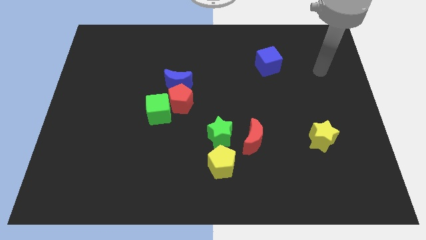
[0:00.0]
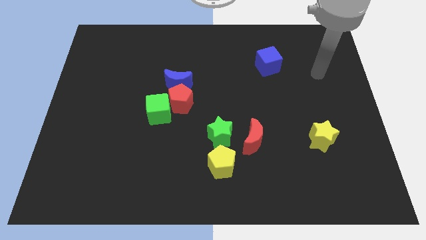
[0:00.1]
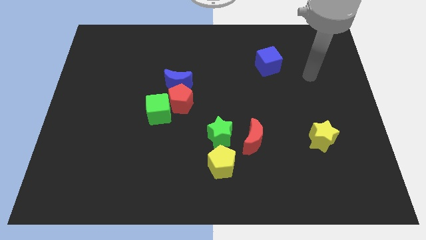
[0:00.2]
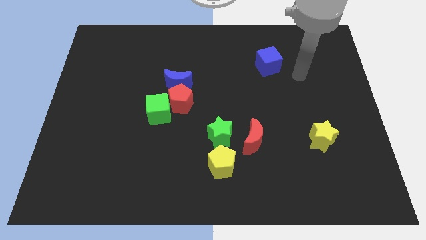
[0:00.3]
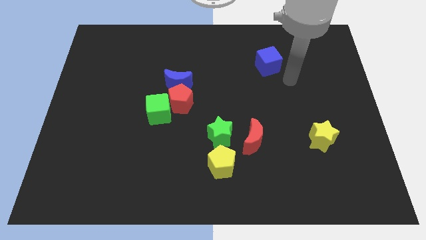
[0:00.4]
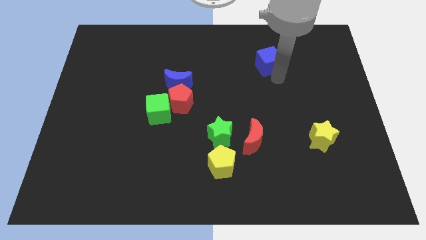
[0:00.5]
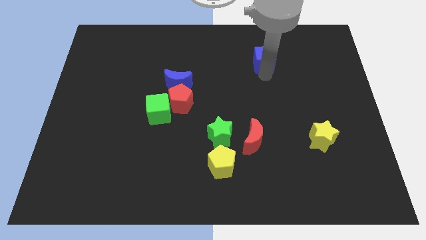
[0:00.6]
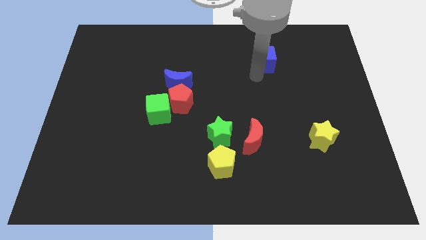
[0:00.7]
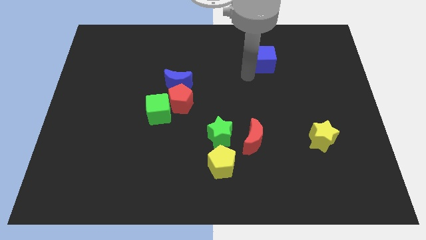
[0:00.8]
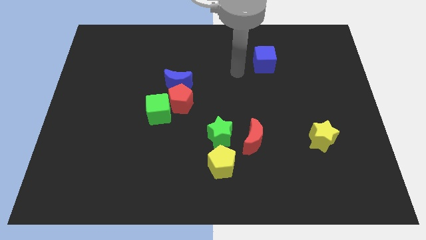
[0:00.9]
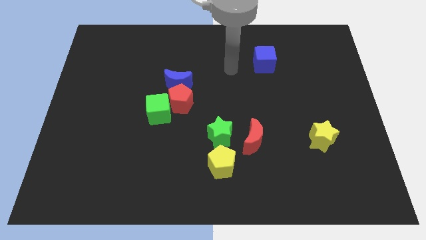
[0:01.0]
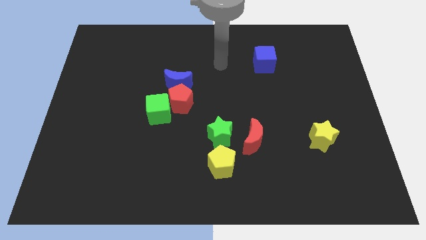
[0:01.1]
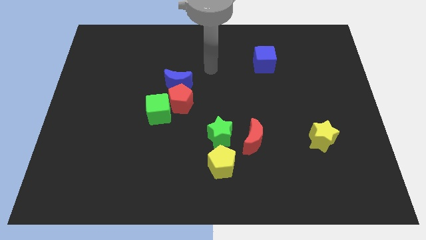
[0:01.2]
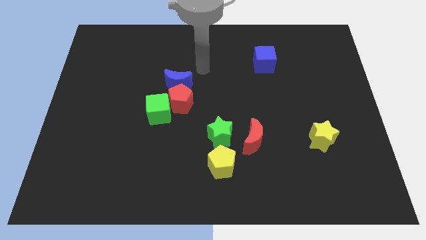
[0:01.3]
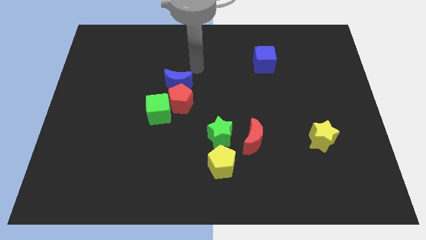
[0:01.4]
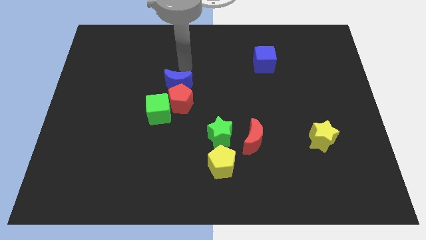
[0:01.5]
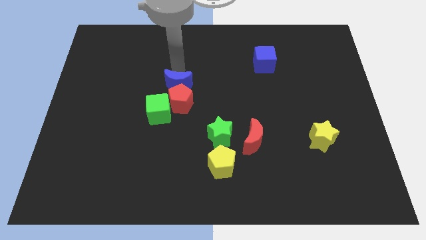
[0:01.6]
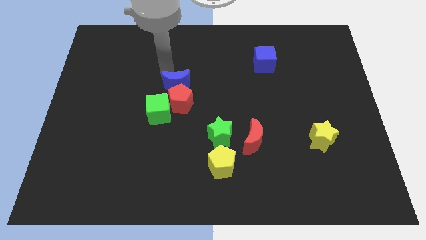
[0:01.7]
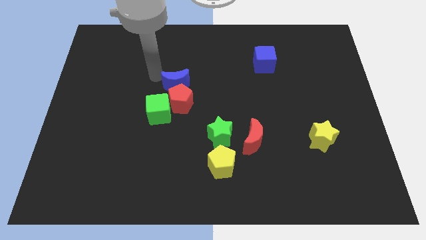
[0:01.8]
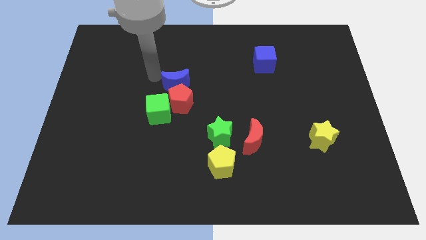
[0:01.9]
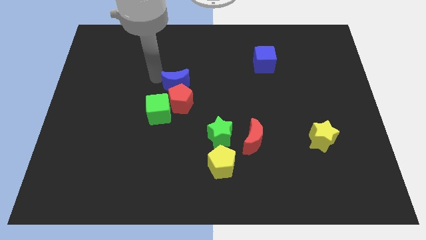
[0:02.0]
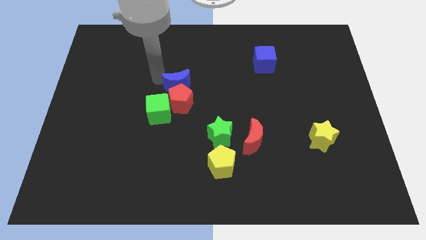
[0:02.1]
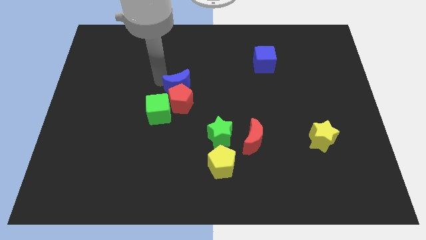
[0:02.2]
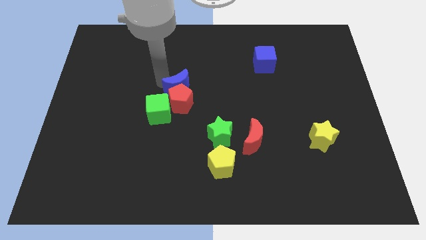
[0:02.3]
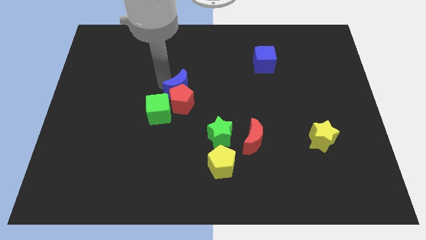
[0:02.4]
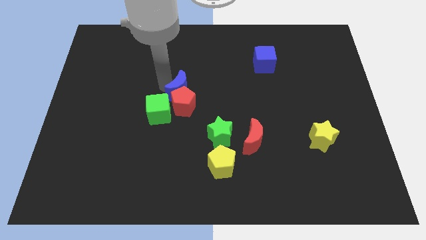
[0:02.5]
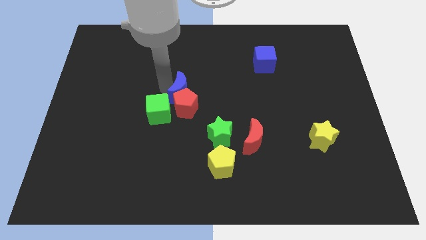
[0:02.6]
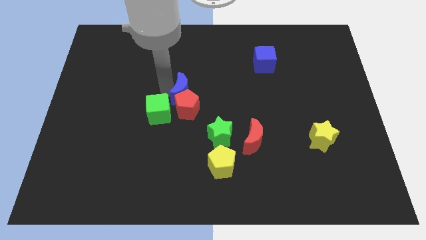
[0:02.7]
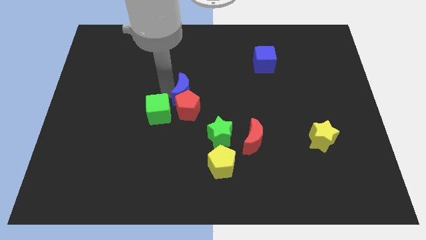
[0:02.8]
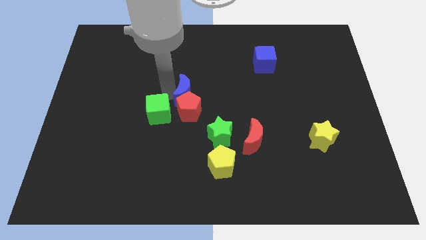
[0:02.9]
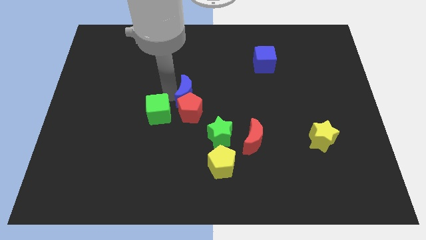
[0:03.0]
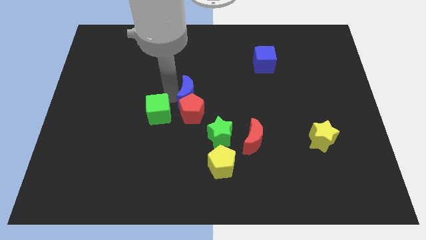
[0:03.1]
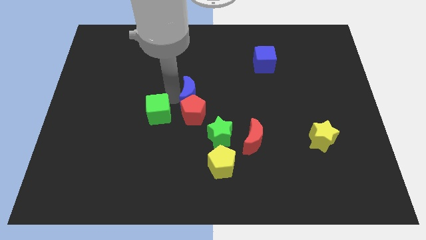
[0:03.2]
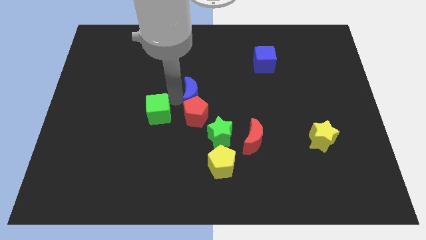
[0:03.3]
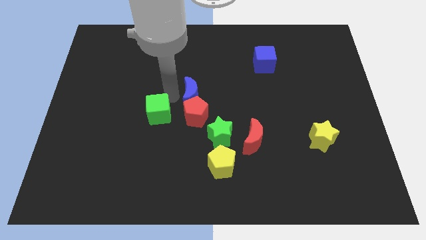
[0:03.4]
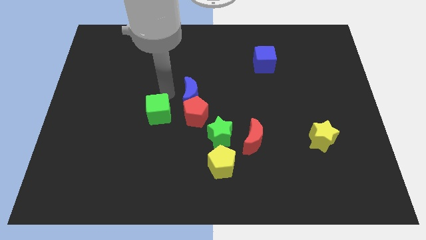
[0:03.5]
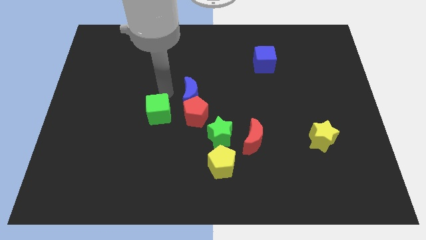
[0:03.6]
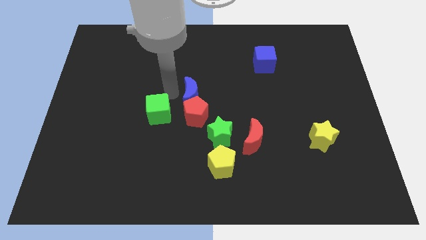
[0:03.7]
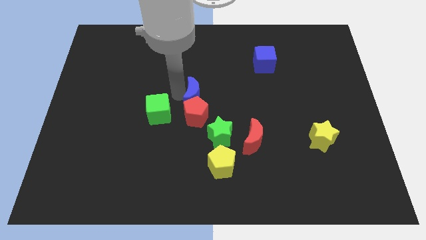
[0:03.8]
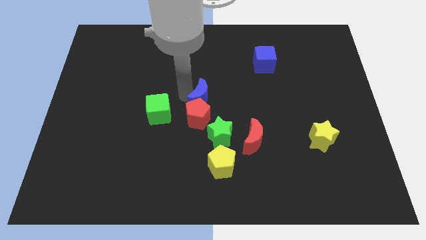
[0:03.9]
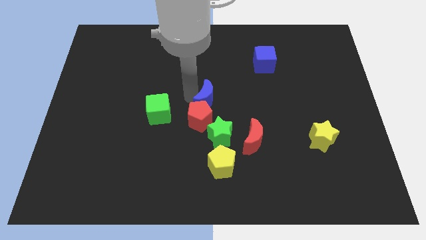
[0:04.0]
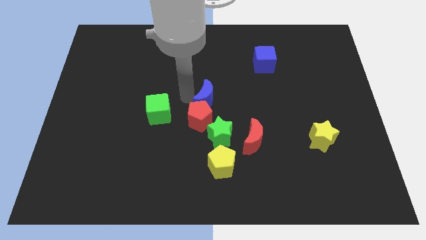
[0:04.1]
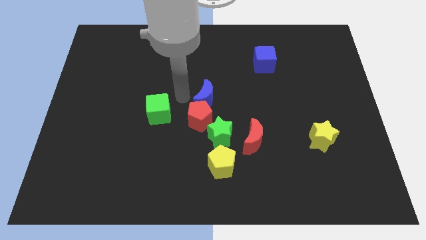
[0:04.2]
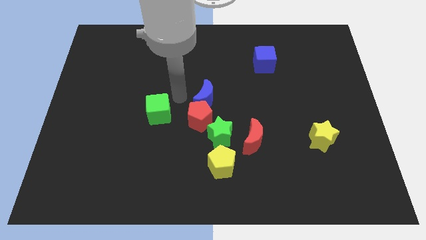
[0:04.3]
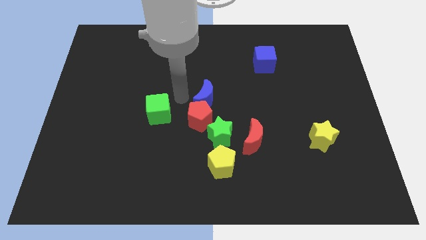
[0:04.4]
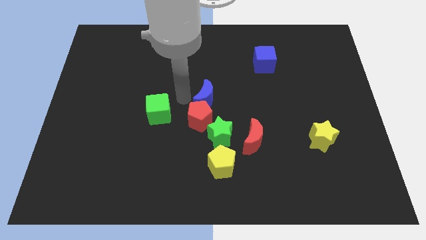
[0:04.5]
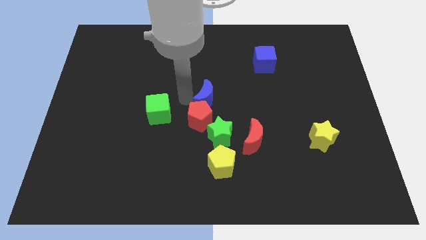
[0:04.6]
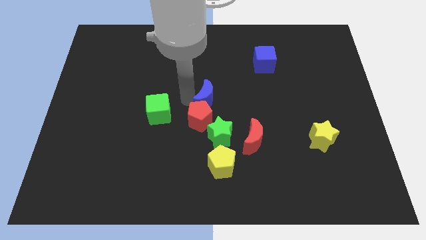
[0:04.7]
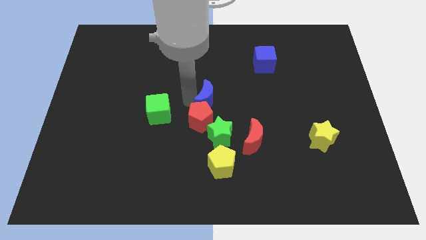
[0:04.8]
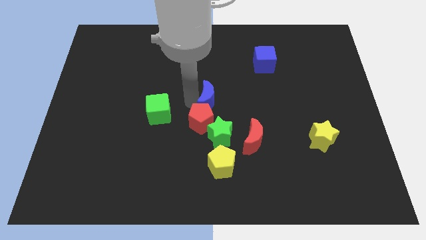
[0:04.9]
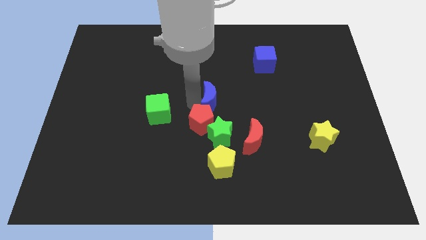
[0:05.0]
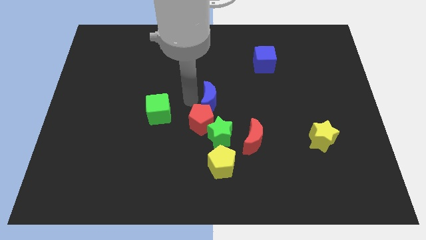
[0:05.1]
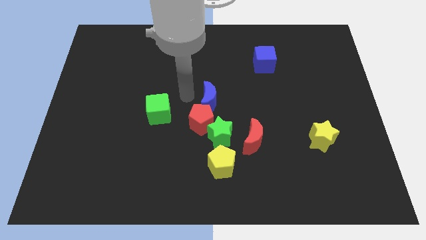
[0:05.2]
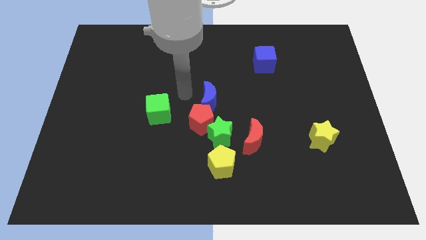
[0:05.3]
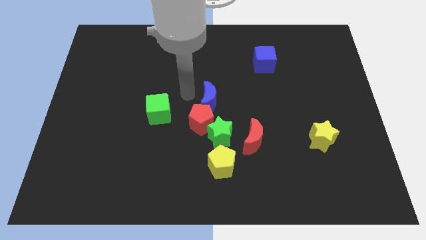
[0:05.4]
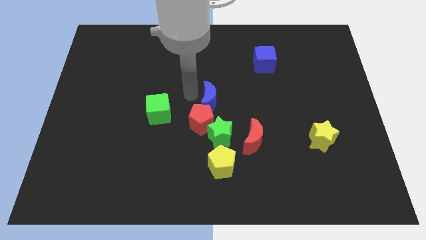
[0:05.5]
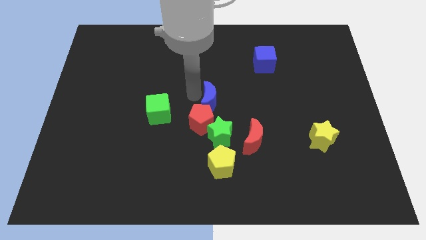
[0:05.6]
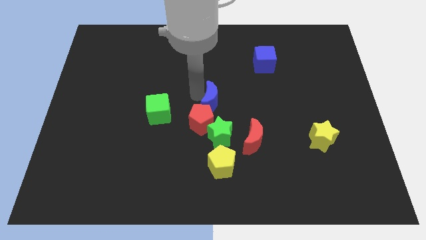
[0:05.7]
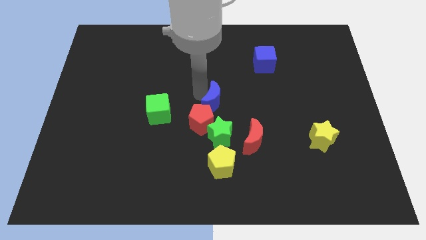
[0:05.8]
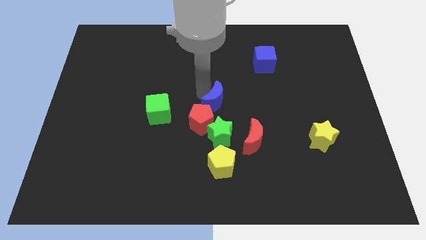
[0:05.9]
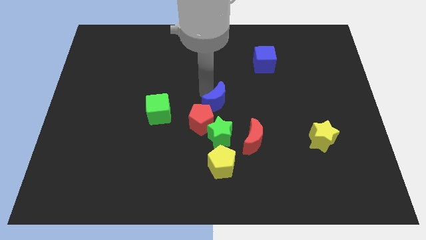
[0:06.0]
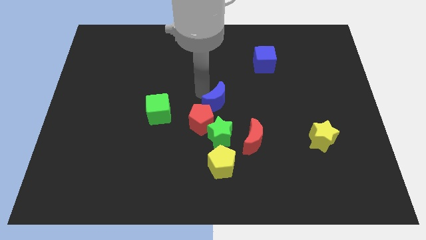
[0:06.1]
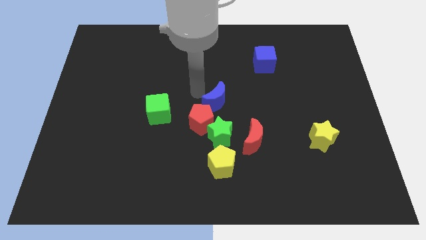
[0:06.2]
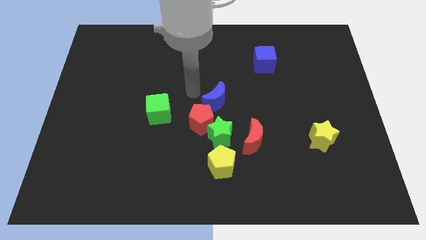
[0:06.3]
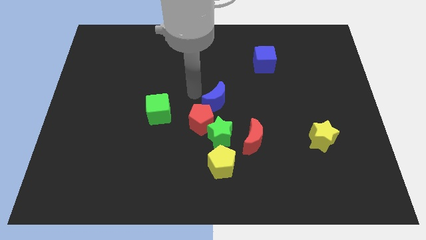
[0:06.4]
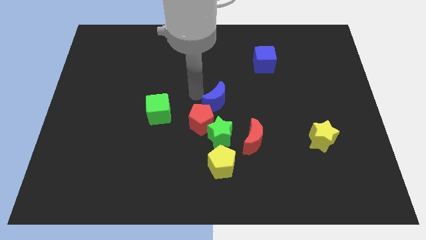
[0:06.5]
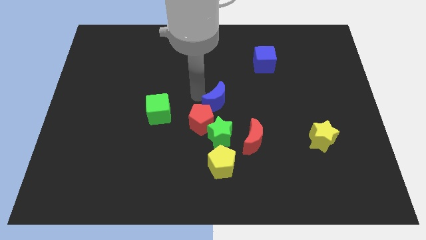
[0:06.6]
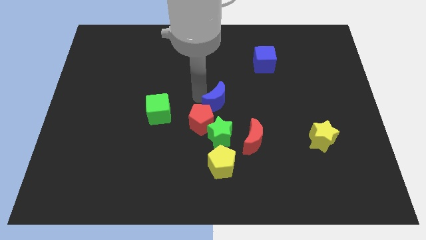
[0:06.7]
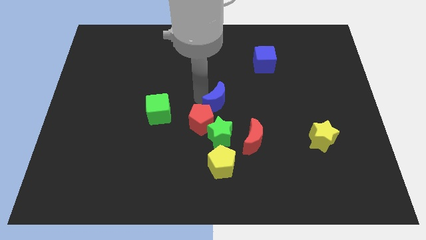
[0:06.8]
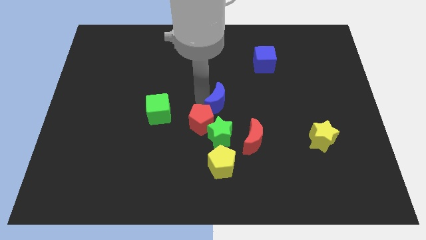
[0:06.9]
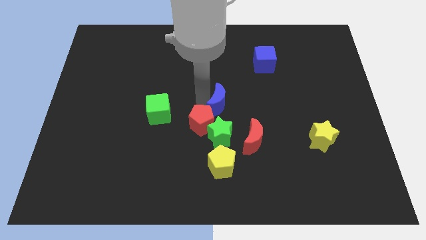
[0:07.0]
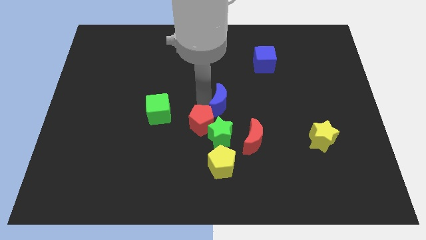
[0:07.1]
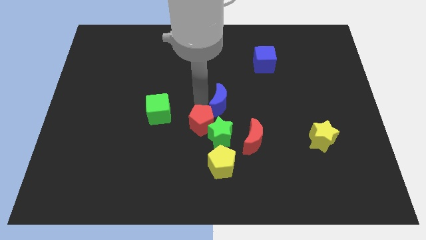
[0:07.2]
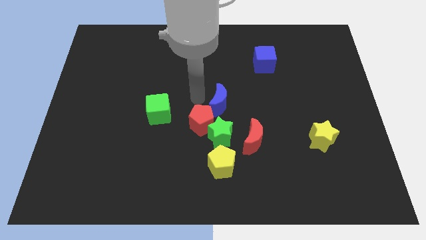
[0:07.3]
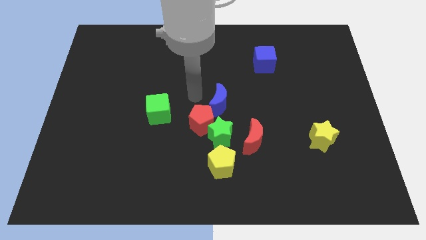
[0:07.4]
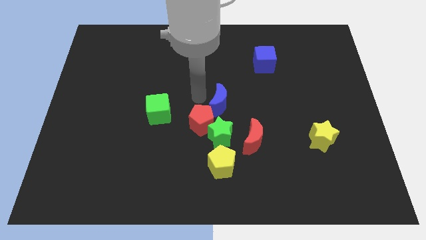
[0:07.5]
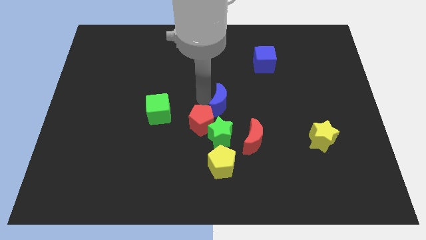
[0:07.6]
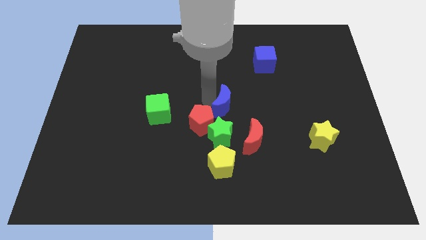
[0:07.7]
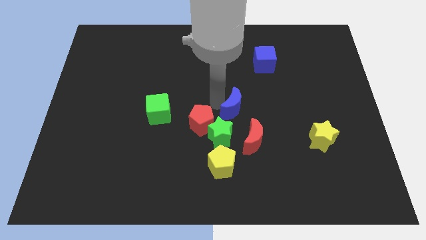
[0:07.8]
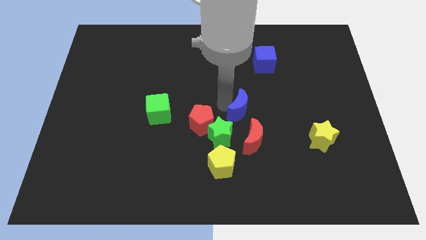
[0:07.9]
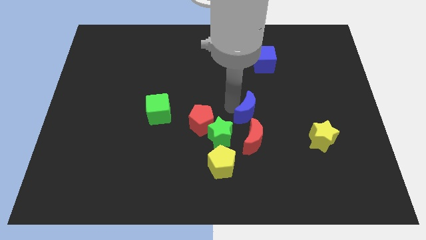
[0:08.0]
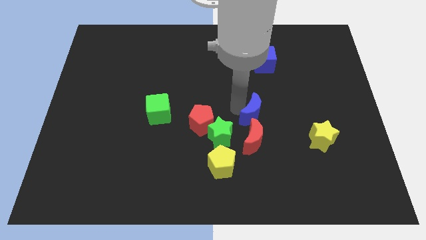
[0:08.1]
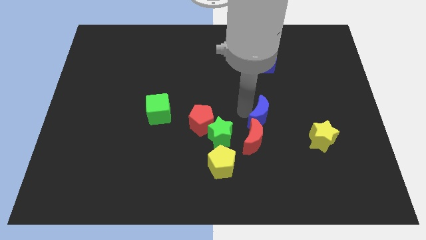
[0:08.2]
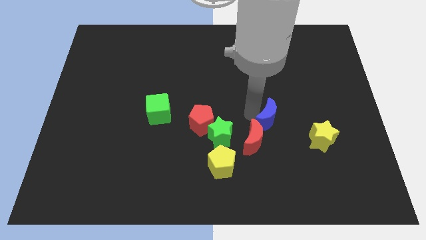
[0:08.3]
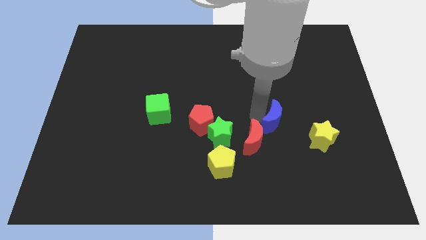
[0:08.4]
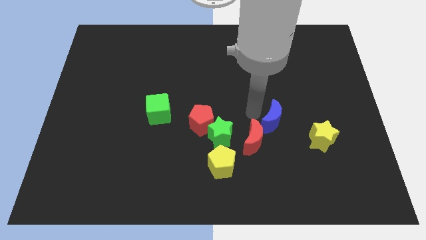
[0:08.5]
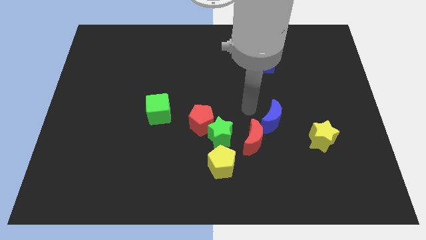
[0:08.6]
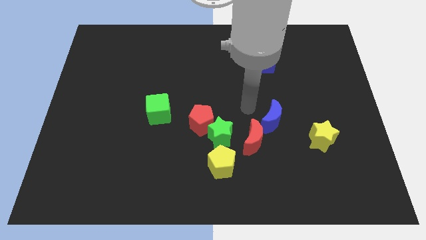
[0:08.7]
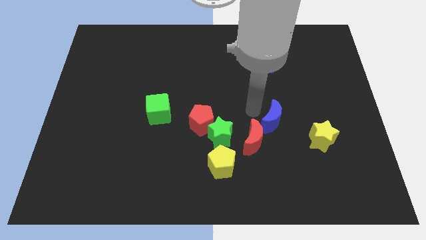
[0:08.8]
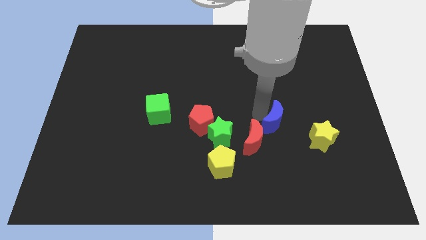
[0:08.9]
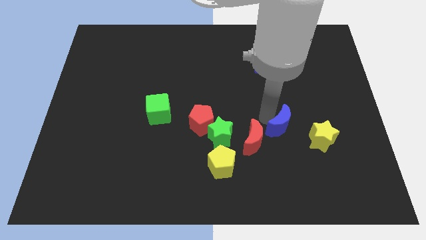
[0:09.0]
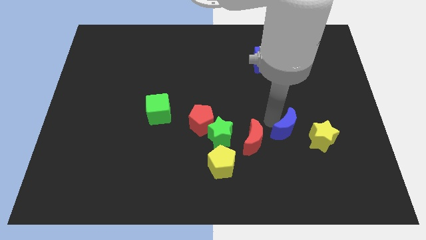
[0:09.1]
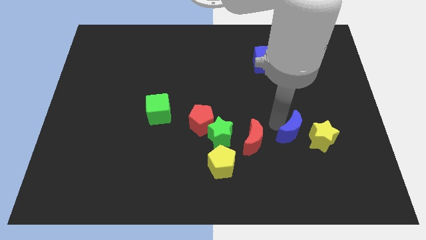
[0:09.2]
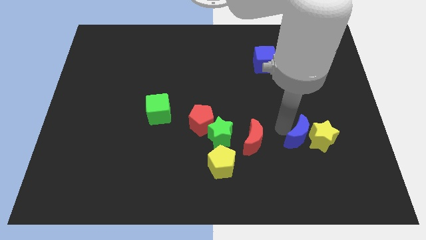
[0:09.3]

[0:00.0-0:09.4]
move the blue moon close to the yellow star
